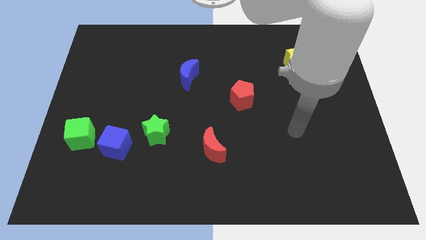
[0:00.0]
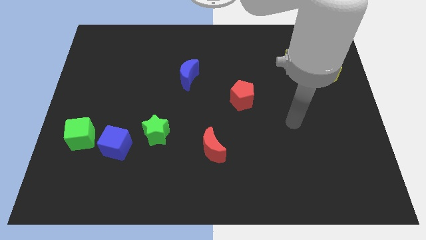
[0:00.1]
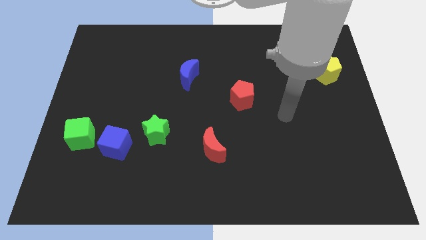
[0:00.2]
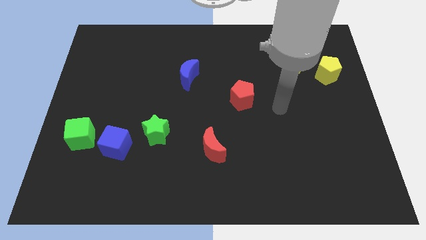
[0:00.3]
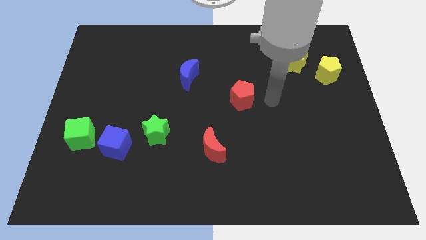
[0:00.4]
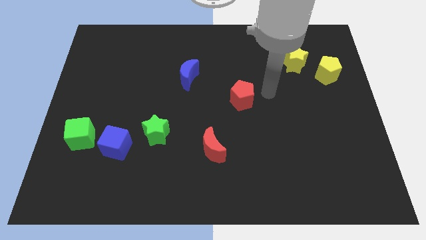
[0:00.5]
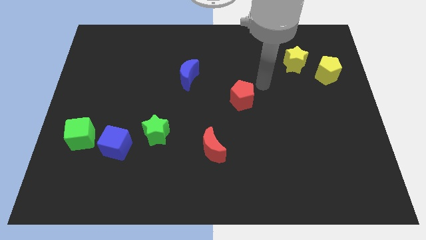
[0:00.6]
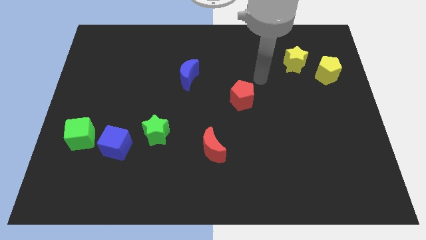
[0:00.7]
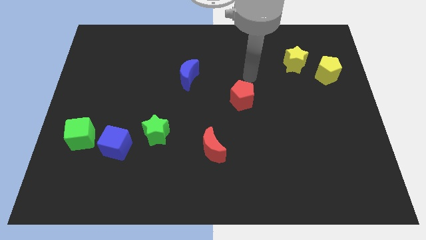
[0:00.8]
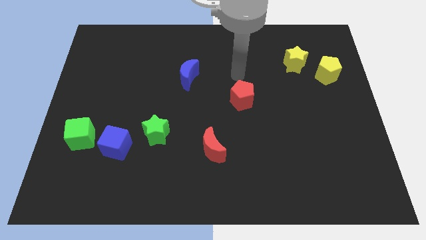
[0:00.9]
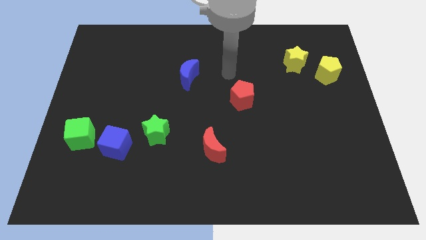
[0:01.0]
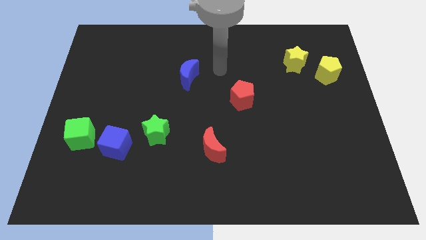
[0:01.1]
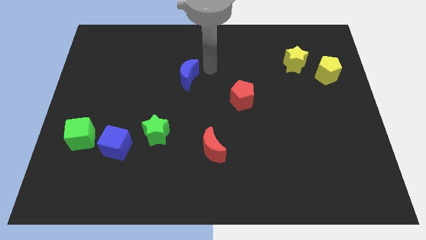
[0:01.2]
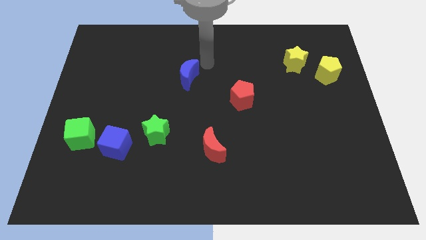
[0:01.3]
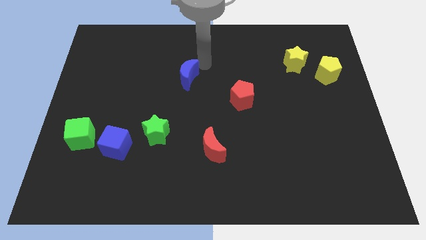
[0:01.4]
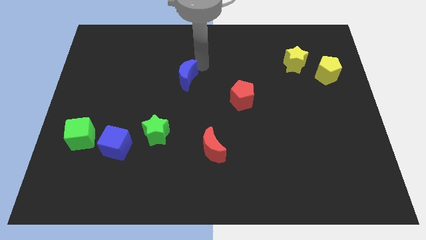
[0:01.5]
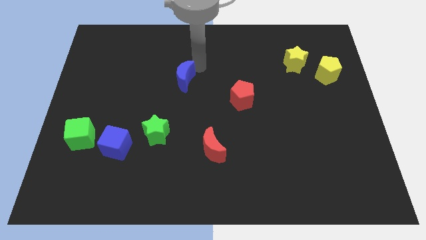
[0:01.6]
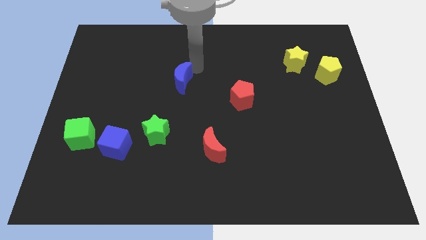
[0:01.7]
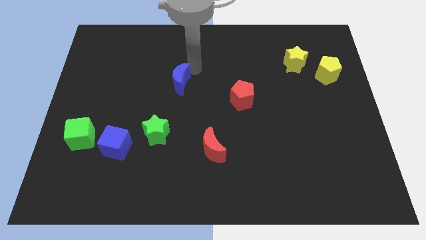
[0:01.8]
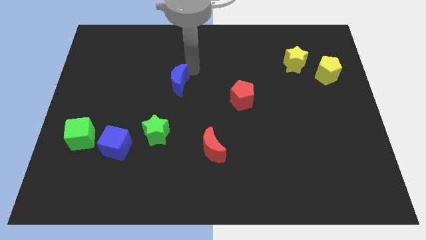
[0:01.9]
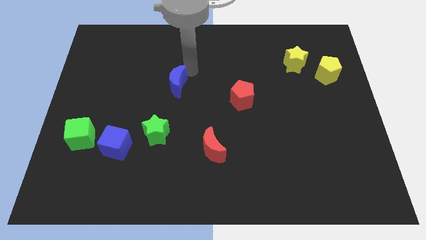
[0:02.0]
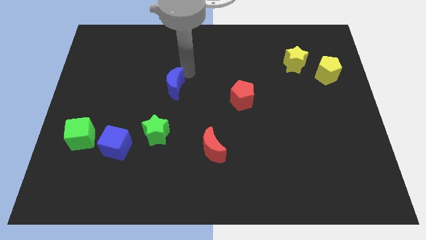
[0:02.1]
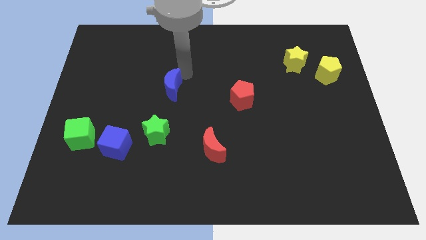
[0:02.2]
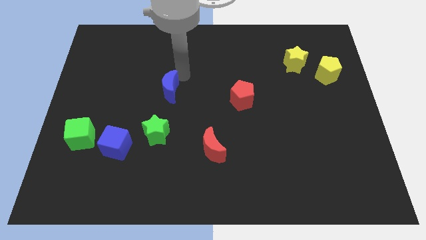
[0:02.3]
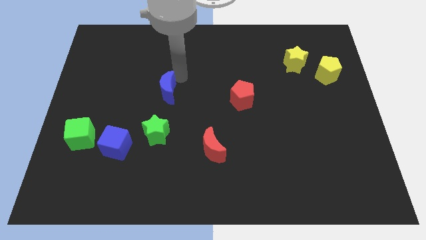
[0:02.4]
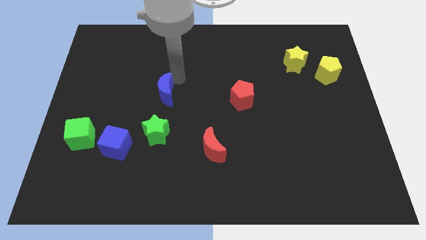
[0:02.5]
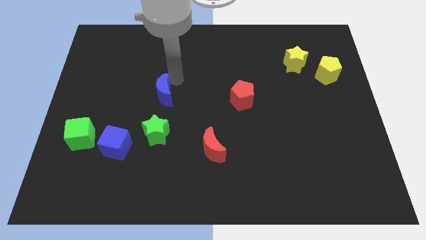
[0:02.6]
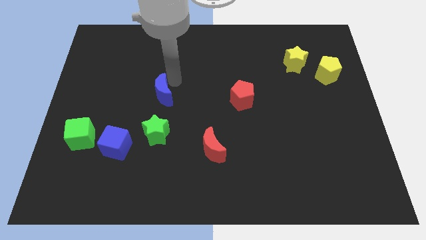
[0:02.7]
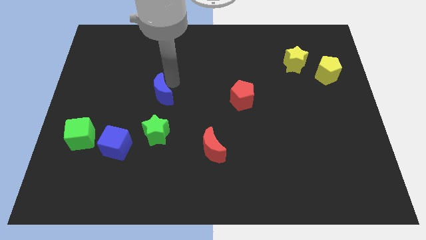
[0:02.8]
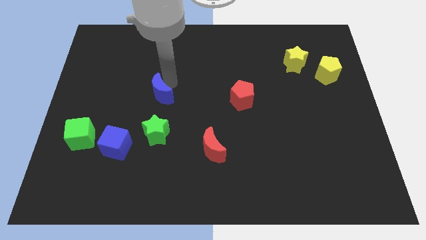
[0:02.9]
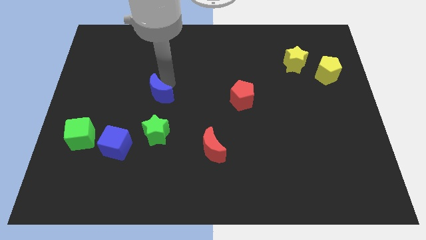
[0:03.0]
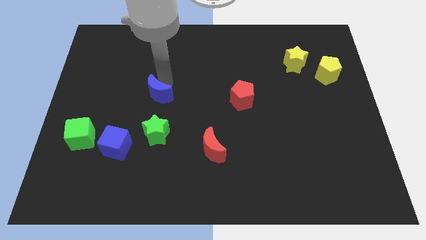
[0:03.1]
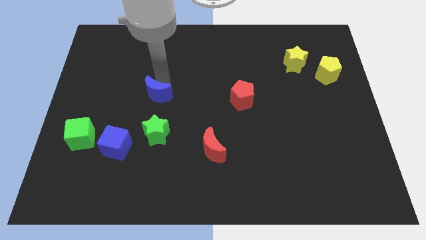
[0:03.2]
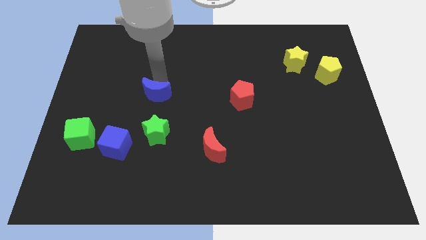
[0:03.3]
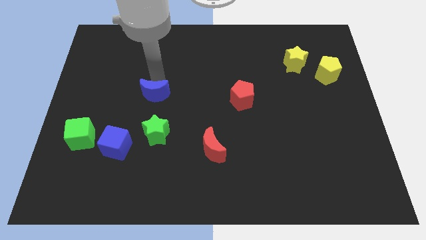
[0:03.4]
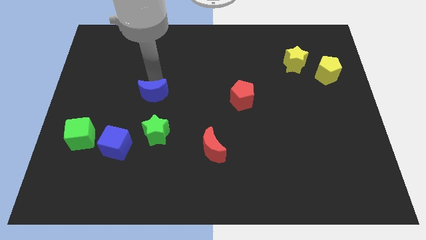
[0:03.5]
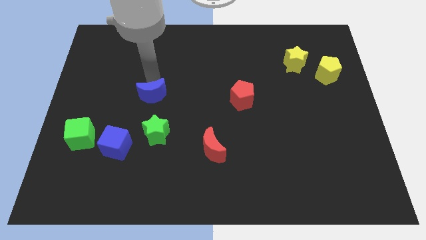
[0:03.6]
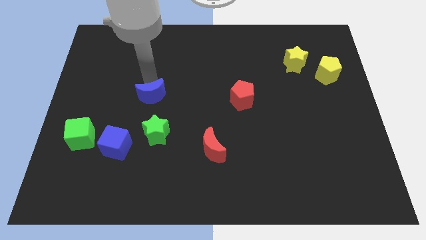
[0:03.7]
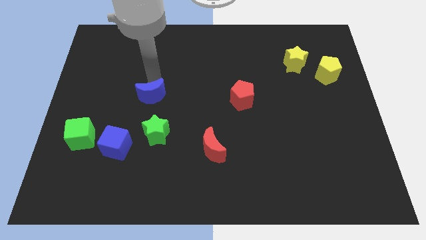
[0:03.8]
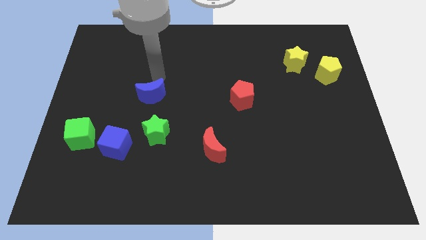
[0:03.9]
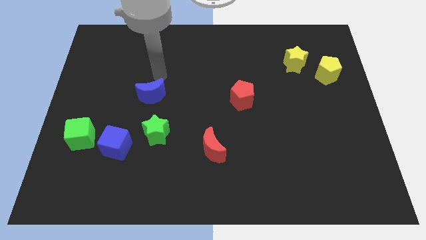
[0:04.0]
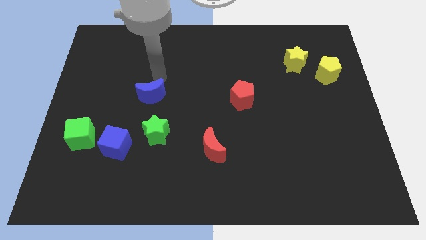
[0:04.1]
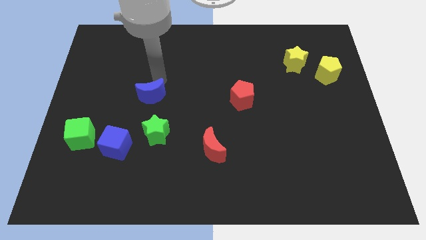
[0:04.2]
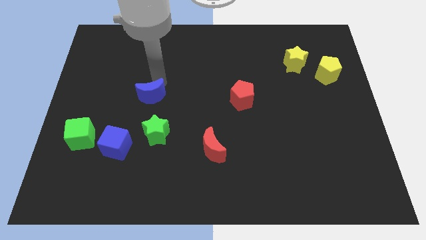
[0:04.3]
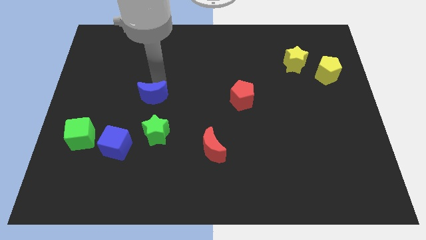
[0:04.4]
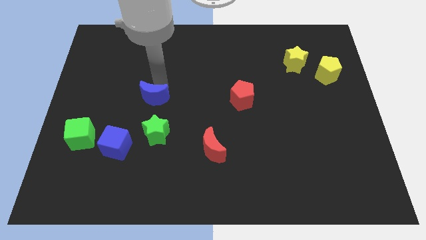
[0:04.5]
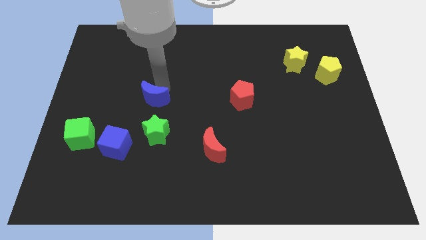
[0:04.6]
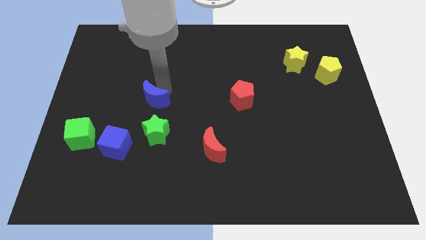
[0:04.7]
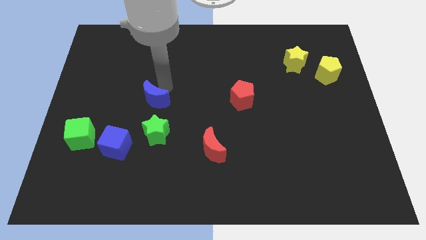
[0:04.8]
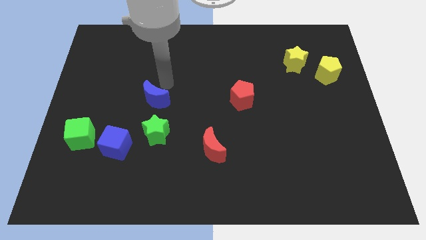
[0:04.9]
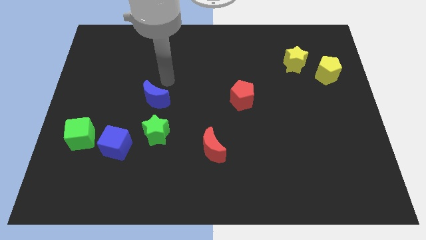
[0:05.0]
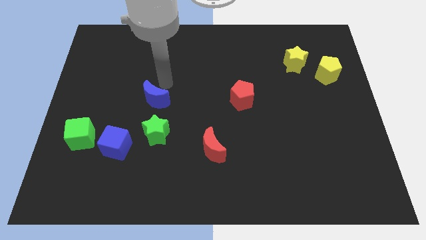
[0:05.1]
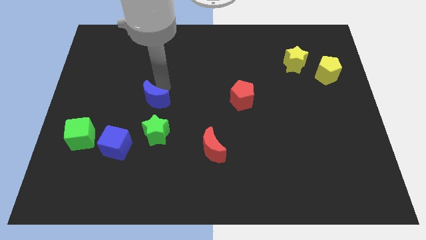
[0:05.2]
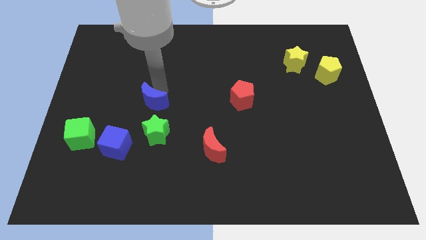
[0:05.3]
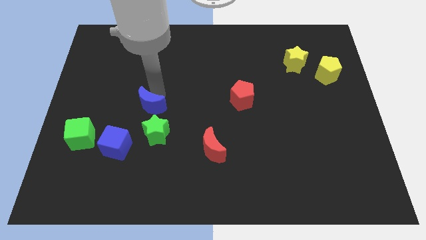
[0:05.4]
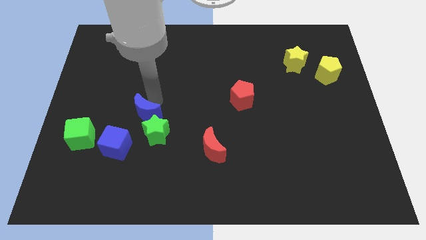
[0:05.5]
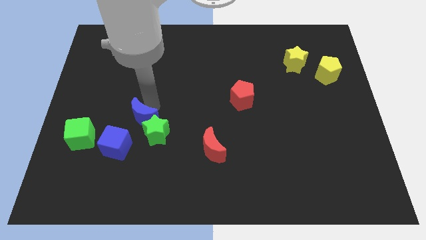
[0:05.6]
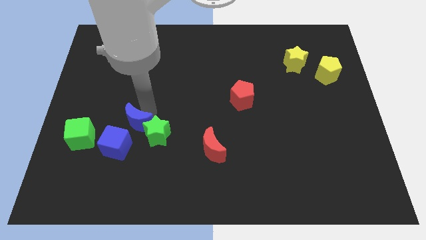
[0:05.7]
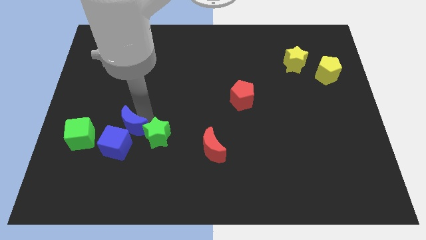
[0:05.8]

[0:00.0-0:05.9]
move the blue moon to the blue cube
